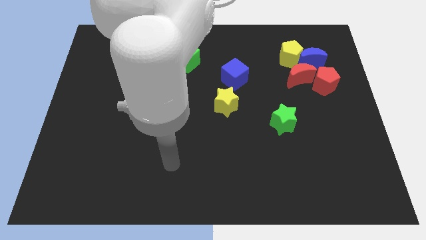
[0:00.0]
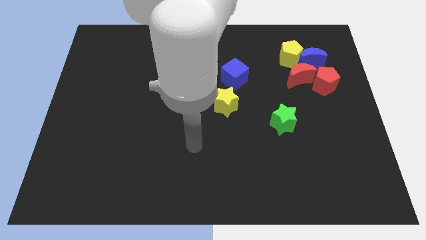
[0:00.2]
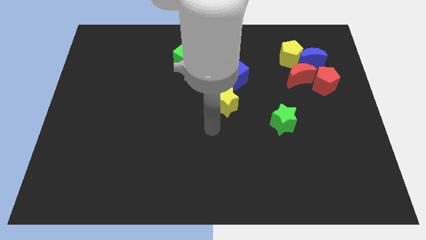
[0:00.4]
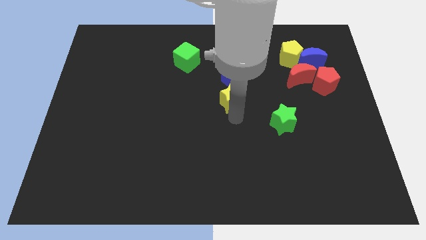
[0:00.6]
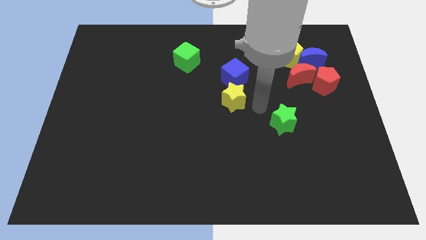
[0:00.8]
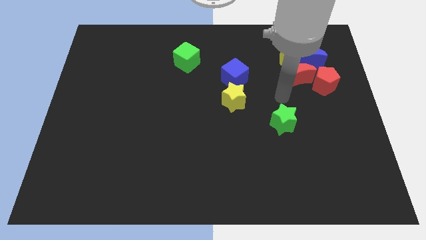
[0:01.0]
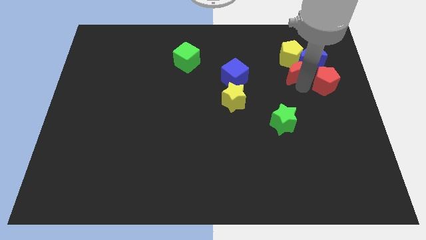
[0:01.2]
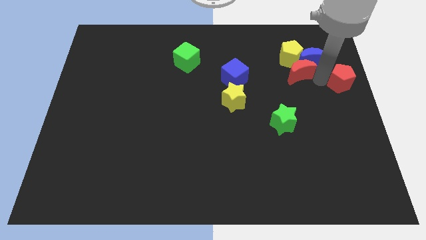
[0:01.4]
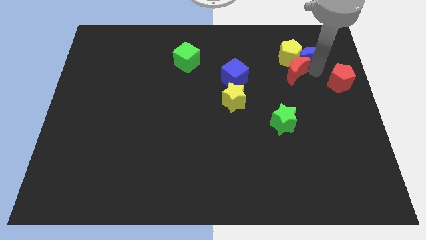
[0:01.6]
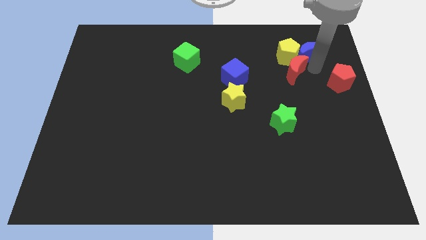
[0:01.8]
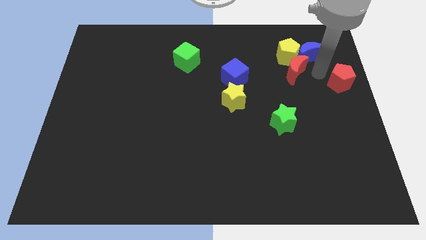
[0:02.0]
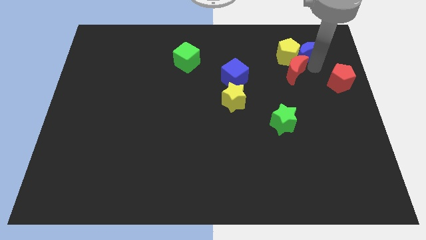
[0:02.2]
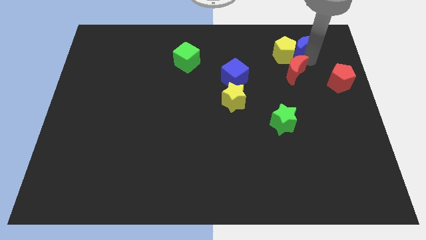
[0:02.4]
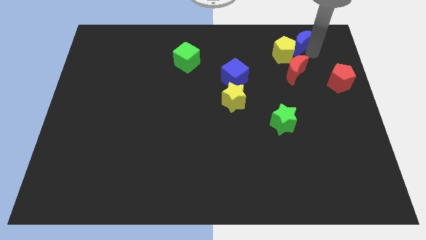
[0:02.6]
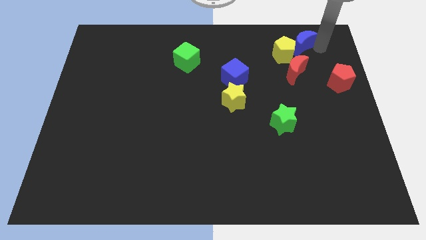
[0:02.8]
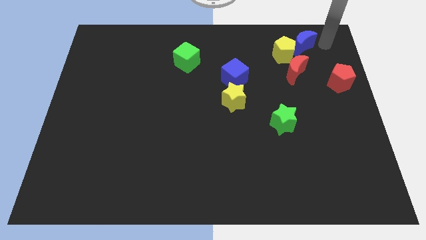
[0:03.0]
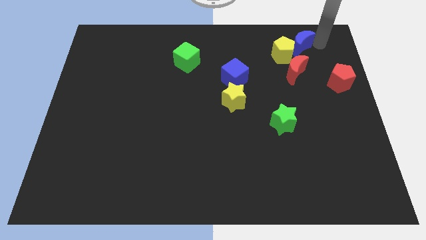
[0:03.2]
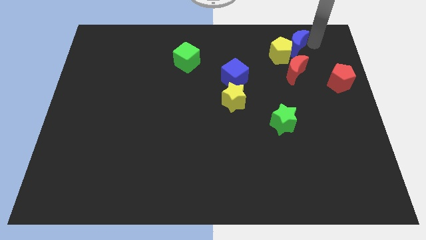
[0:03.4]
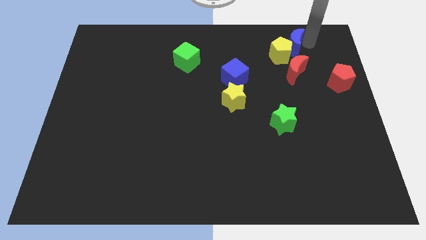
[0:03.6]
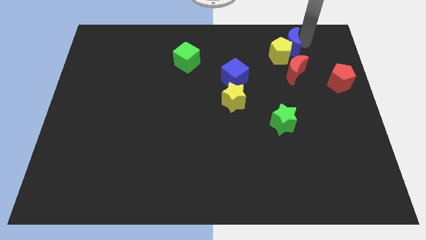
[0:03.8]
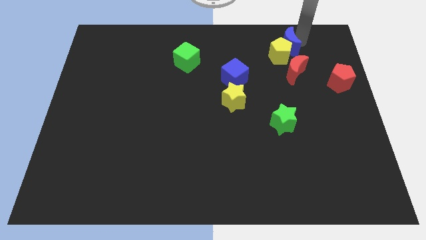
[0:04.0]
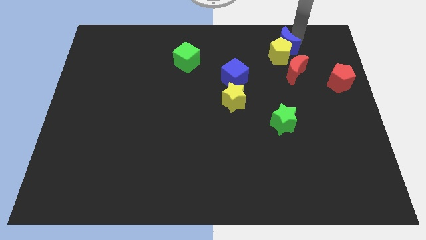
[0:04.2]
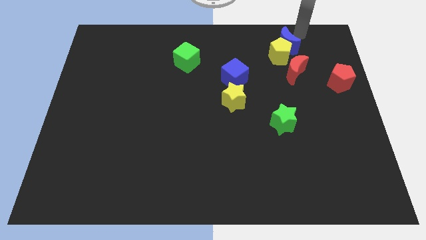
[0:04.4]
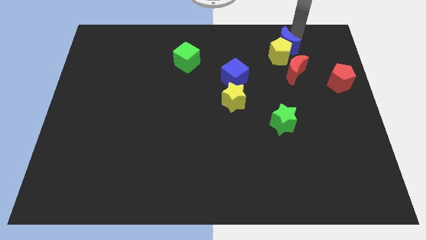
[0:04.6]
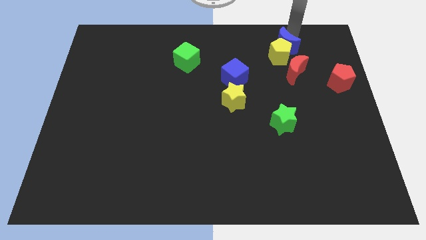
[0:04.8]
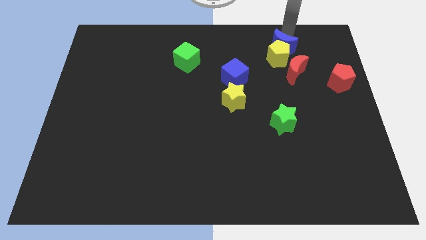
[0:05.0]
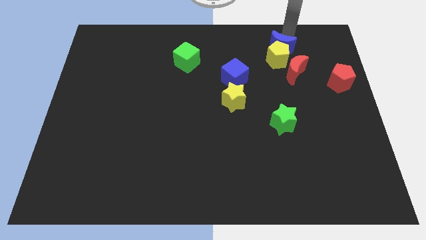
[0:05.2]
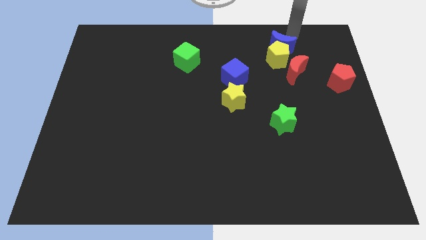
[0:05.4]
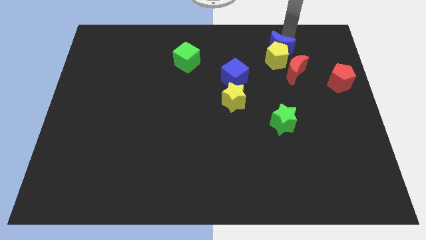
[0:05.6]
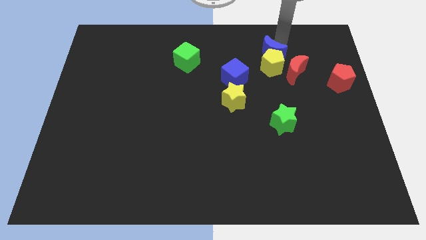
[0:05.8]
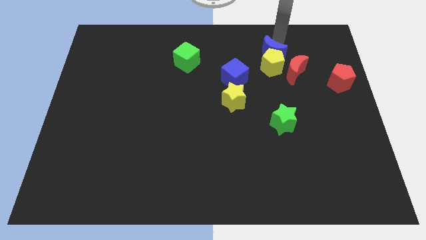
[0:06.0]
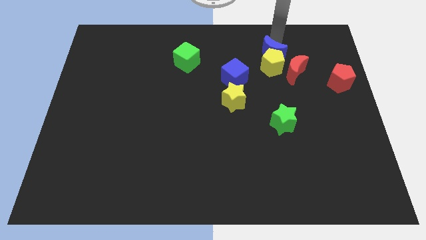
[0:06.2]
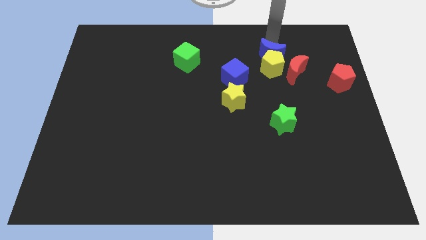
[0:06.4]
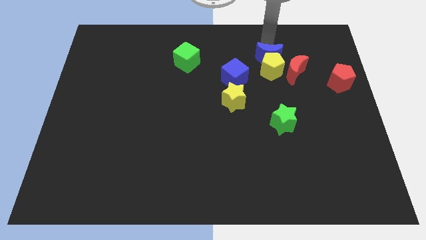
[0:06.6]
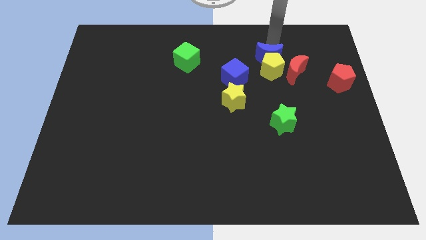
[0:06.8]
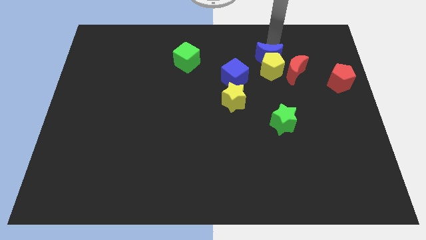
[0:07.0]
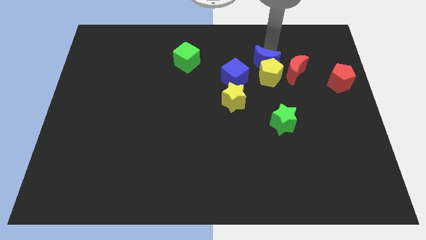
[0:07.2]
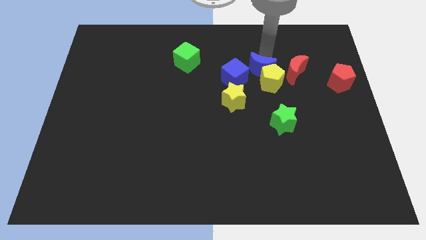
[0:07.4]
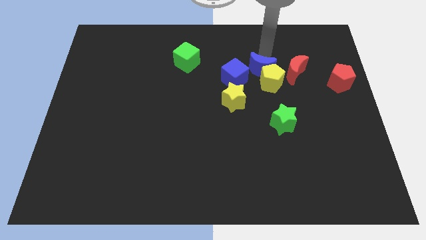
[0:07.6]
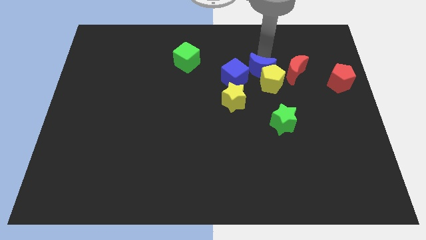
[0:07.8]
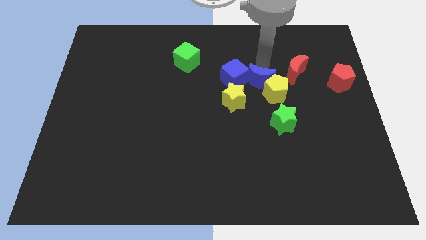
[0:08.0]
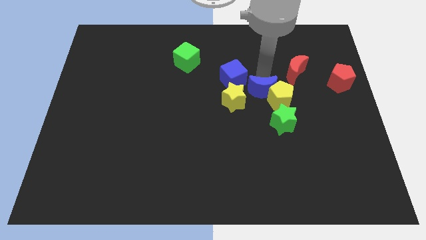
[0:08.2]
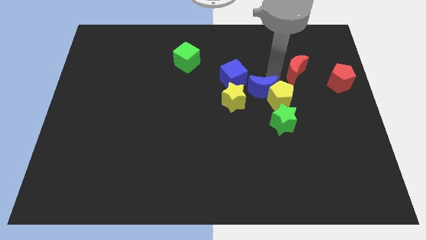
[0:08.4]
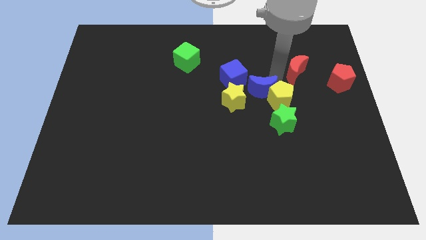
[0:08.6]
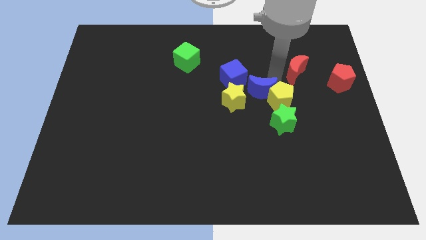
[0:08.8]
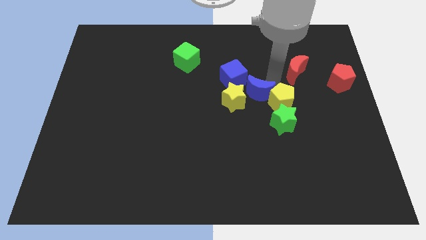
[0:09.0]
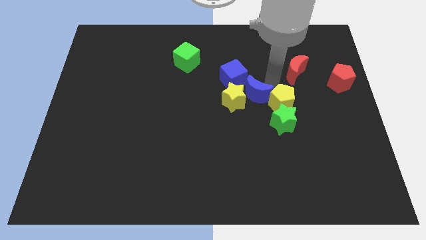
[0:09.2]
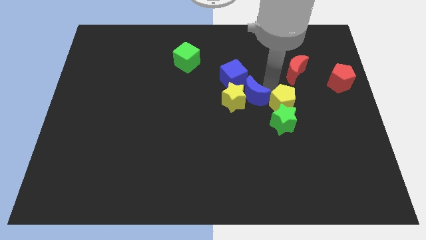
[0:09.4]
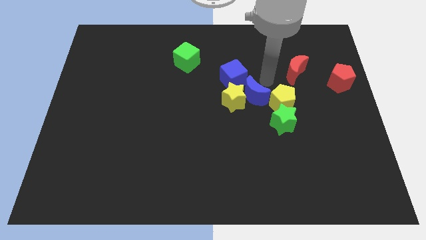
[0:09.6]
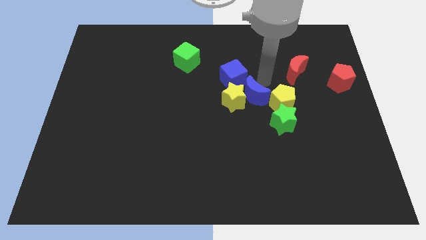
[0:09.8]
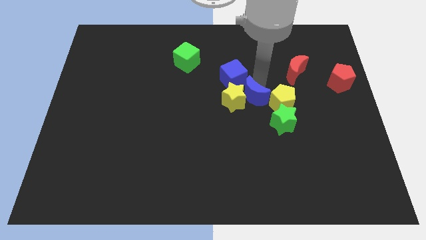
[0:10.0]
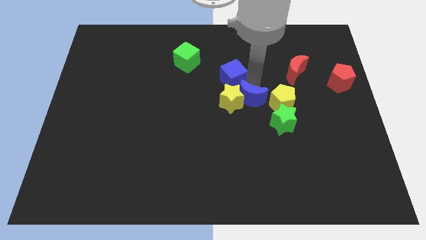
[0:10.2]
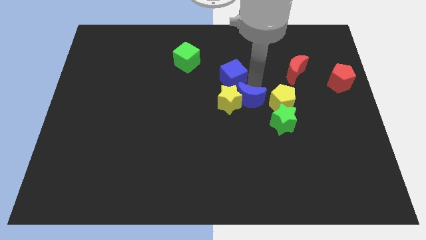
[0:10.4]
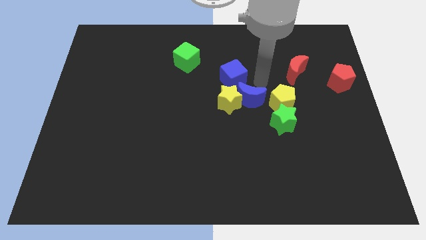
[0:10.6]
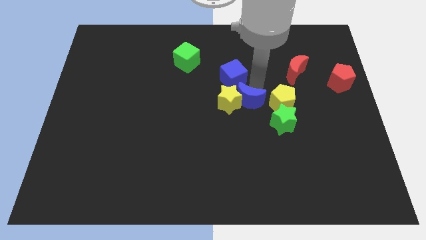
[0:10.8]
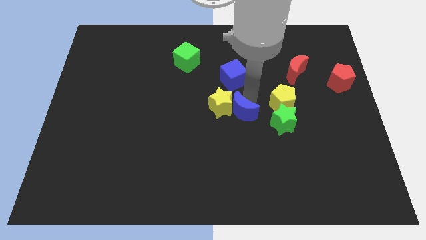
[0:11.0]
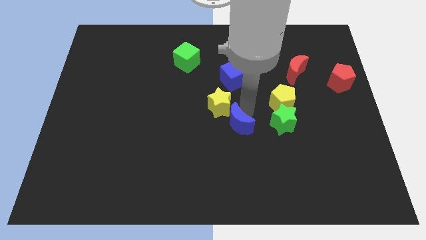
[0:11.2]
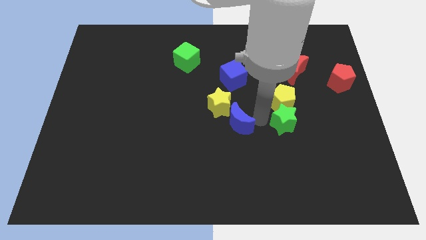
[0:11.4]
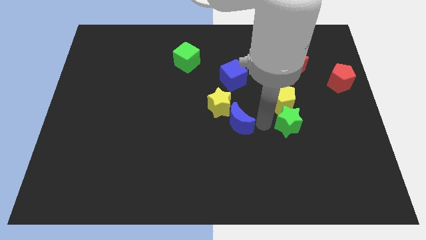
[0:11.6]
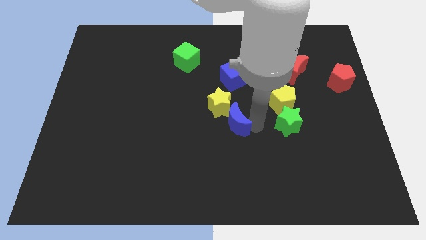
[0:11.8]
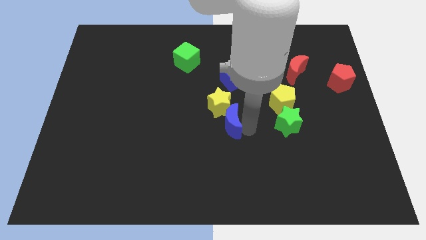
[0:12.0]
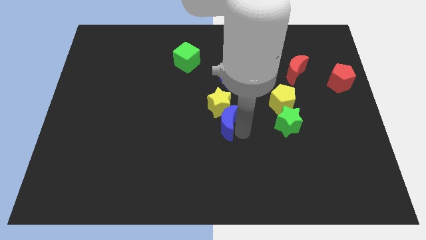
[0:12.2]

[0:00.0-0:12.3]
move the blue moon to the bottom left side of the yellow star
